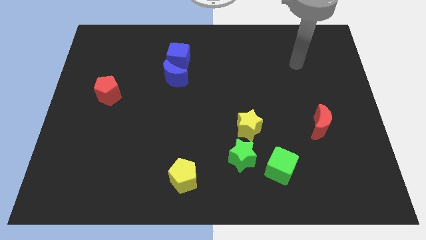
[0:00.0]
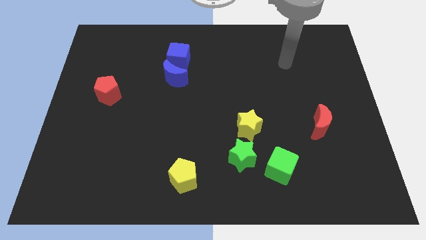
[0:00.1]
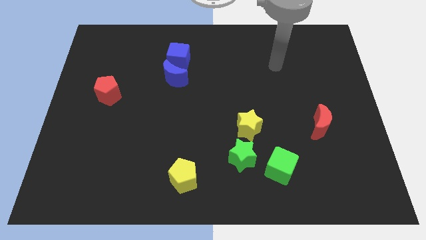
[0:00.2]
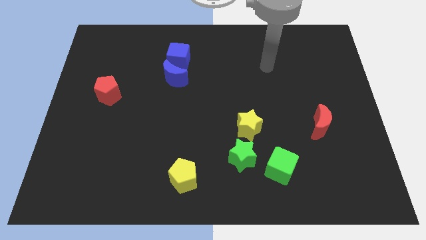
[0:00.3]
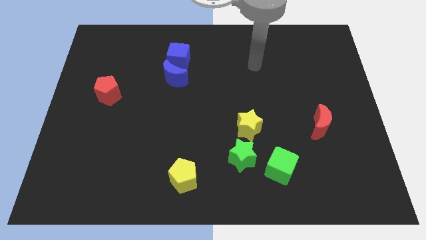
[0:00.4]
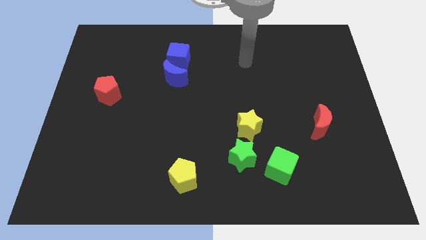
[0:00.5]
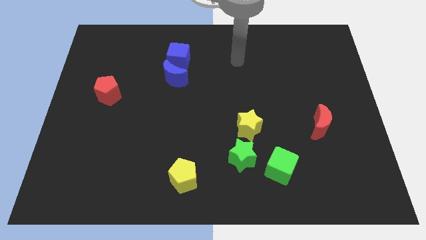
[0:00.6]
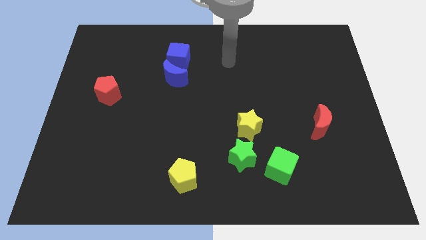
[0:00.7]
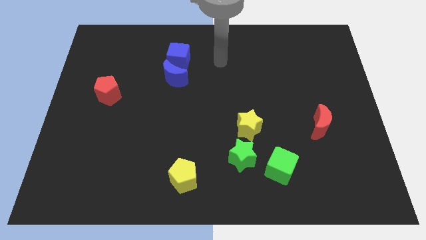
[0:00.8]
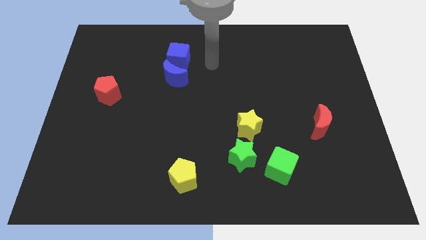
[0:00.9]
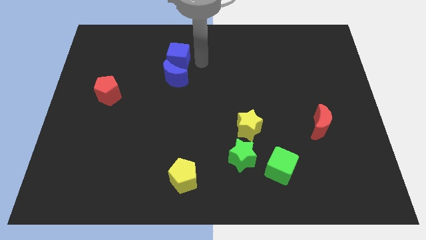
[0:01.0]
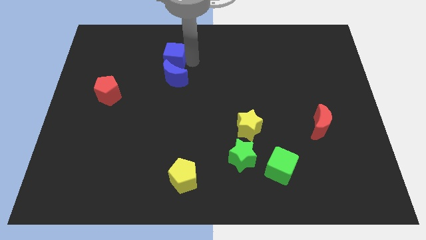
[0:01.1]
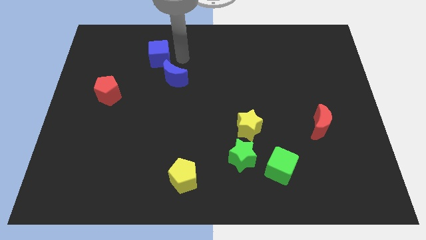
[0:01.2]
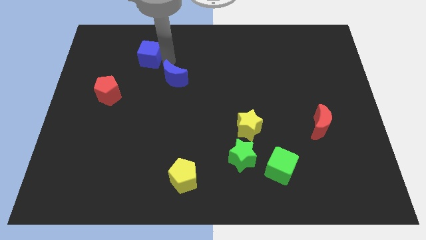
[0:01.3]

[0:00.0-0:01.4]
pull the blue moon apart from the blue cube

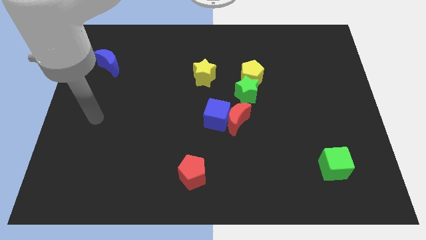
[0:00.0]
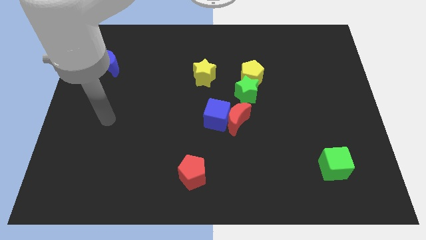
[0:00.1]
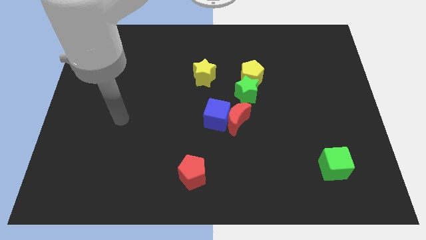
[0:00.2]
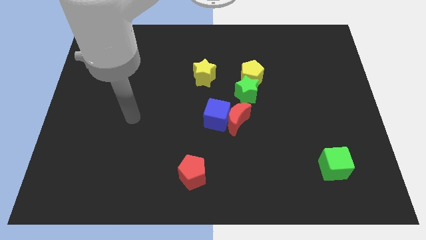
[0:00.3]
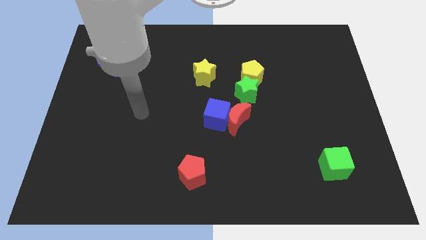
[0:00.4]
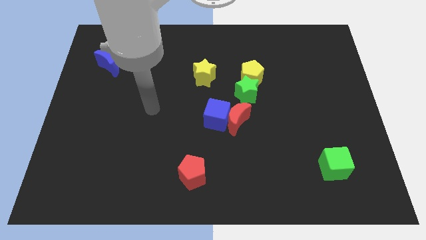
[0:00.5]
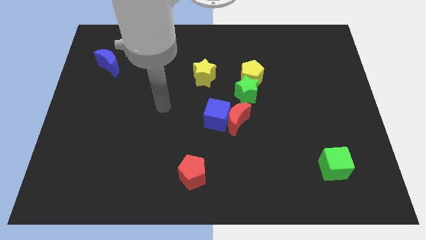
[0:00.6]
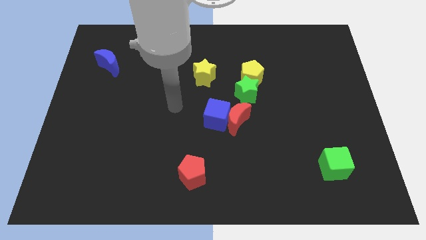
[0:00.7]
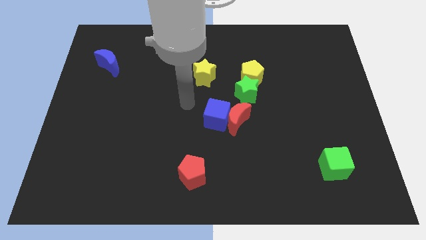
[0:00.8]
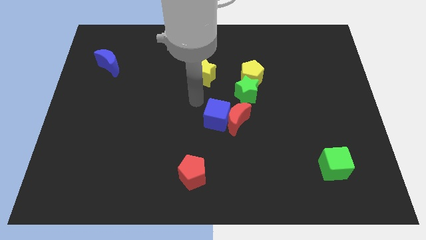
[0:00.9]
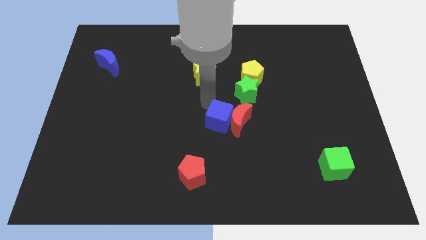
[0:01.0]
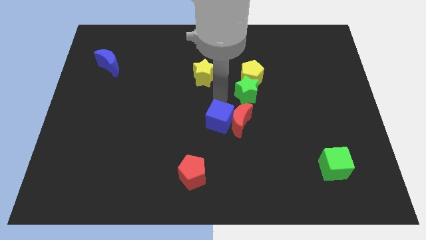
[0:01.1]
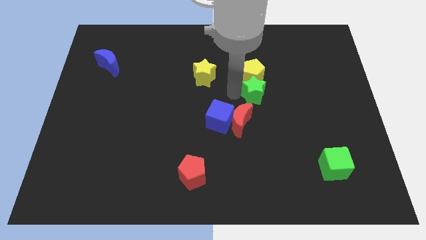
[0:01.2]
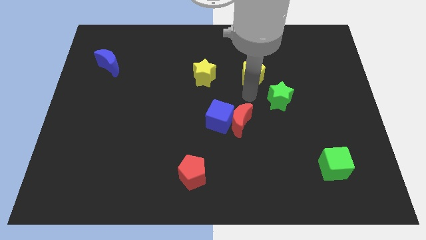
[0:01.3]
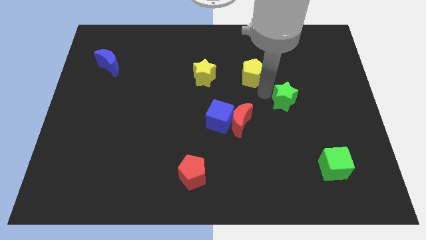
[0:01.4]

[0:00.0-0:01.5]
separate the yellow pentagon from the green star

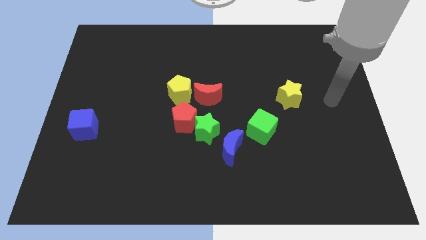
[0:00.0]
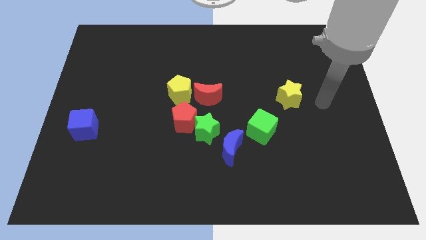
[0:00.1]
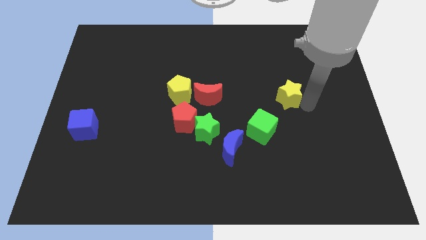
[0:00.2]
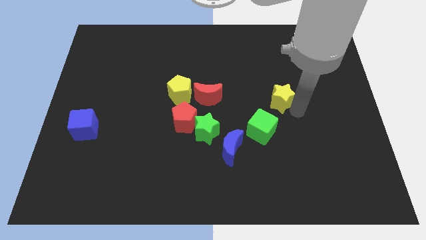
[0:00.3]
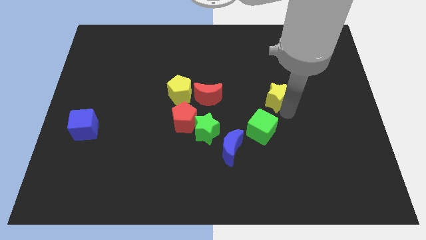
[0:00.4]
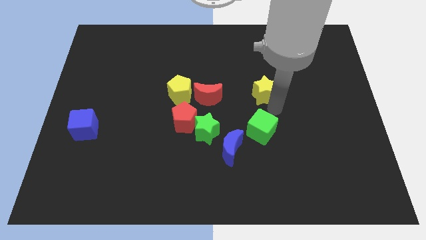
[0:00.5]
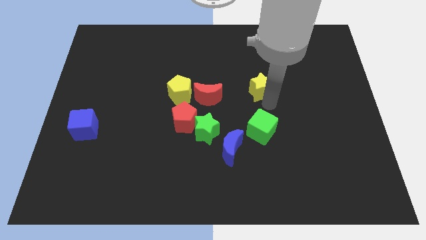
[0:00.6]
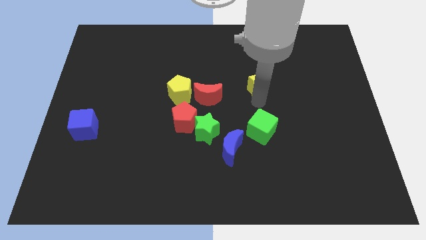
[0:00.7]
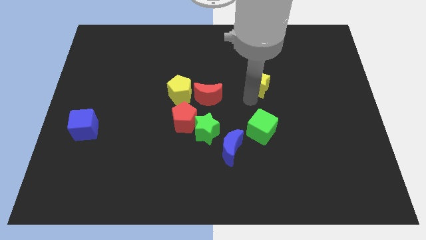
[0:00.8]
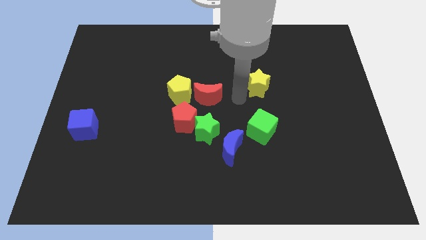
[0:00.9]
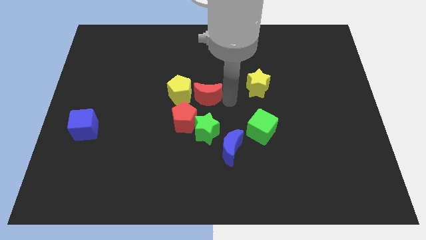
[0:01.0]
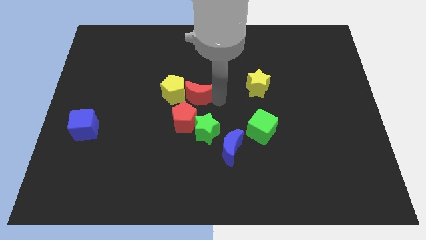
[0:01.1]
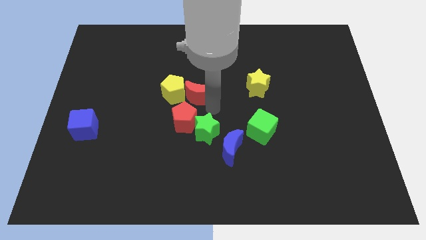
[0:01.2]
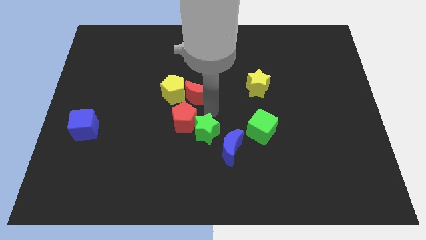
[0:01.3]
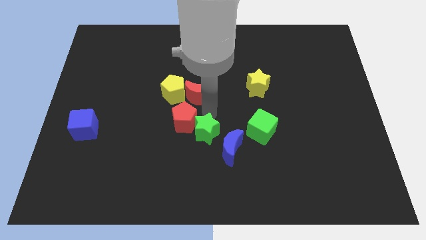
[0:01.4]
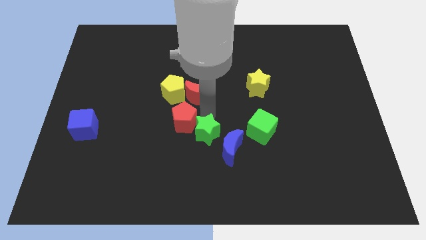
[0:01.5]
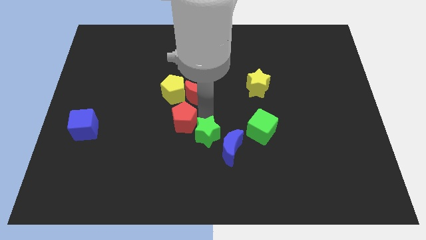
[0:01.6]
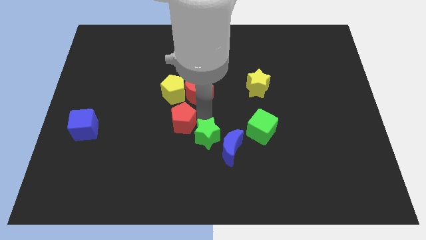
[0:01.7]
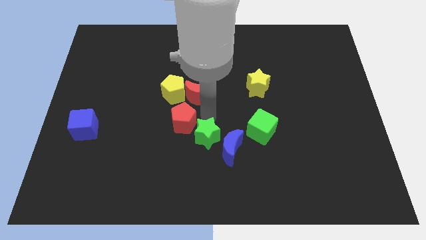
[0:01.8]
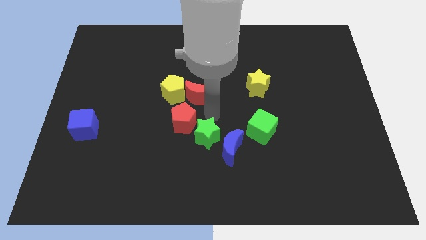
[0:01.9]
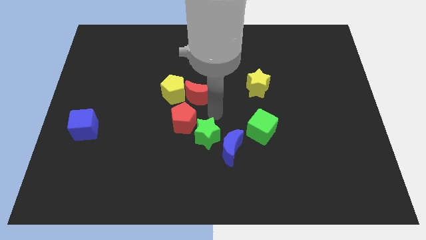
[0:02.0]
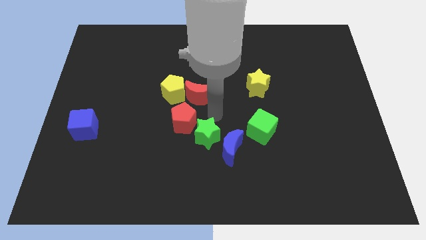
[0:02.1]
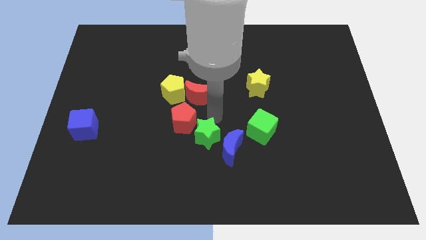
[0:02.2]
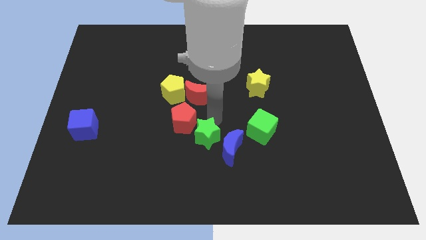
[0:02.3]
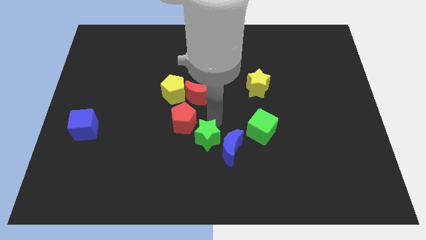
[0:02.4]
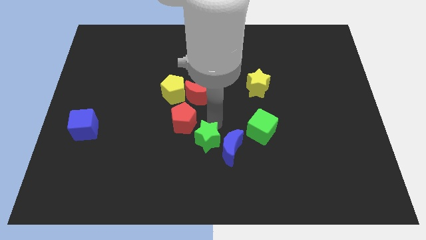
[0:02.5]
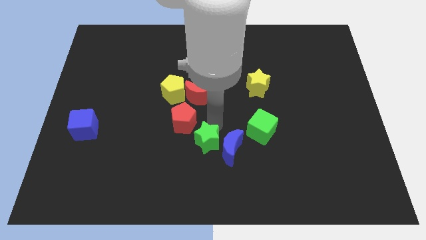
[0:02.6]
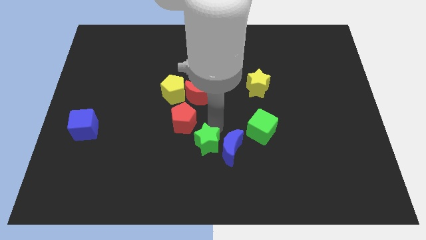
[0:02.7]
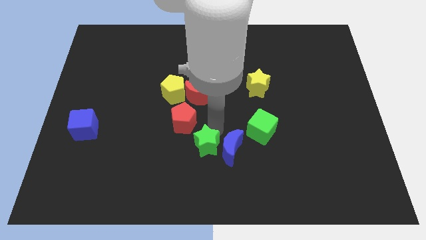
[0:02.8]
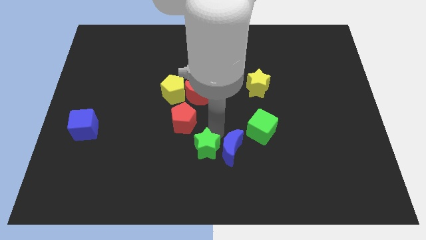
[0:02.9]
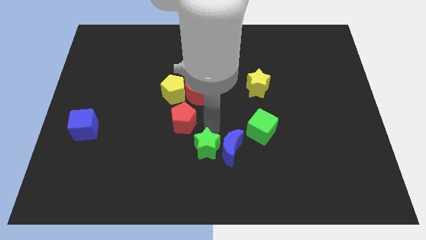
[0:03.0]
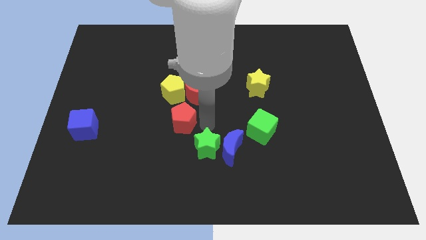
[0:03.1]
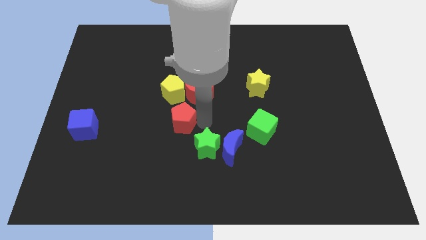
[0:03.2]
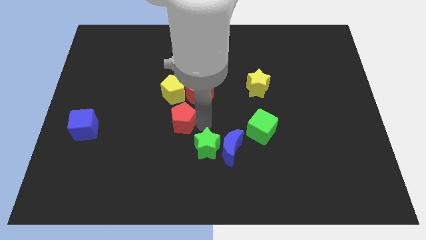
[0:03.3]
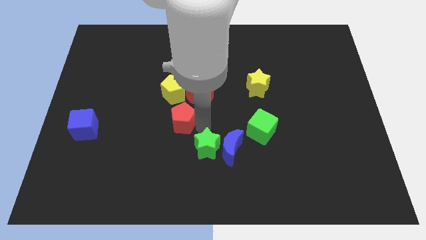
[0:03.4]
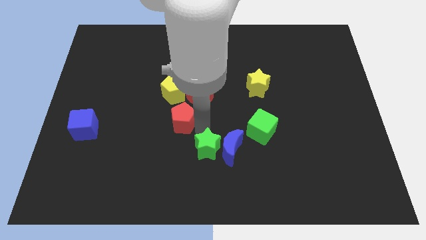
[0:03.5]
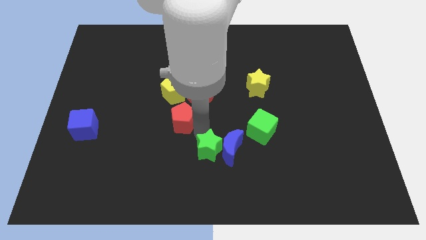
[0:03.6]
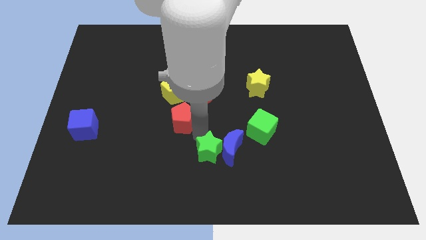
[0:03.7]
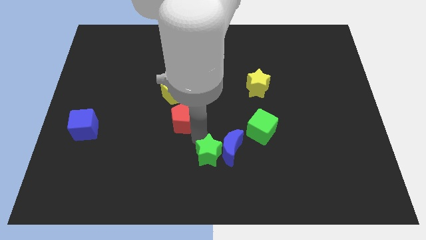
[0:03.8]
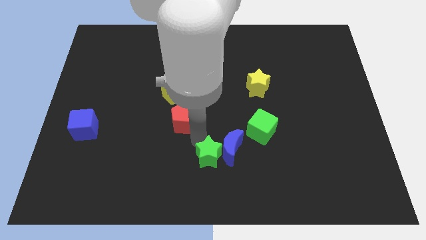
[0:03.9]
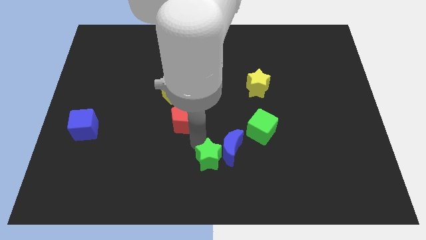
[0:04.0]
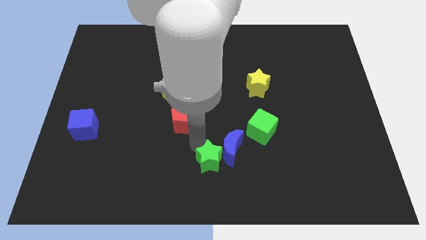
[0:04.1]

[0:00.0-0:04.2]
separate the green star from the group of blocks

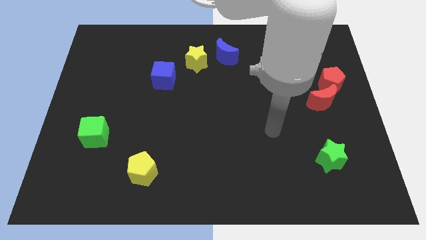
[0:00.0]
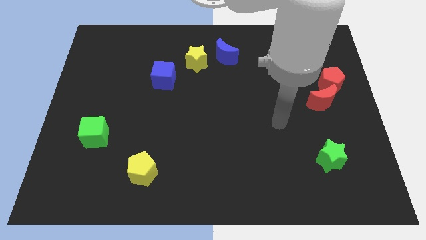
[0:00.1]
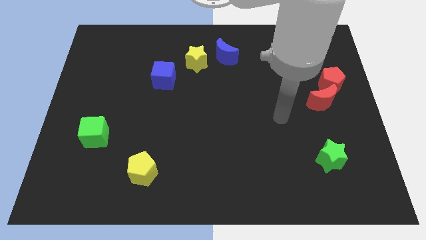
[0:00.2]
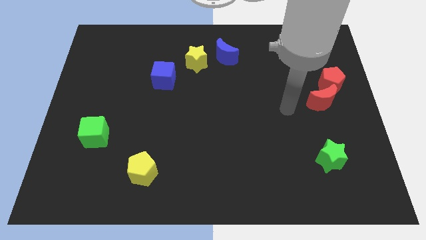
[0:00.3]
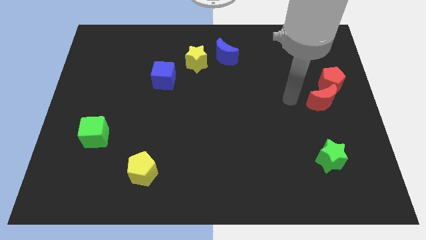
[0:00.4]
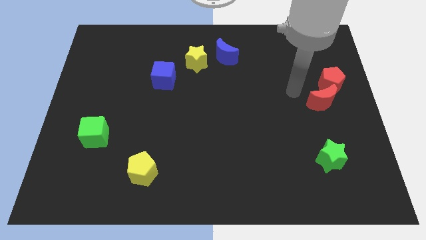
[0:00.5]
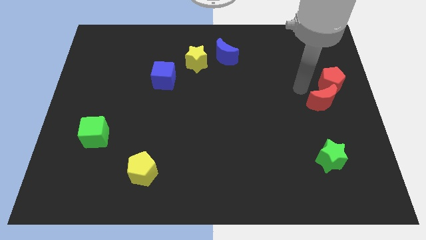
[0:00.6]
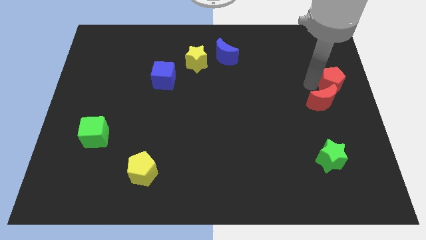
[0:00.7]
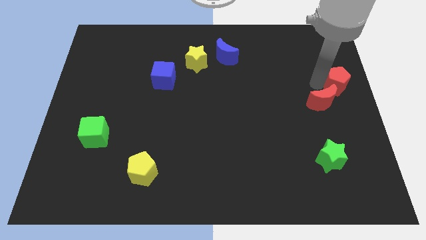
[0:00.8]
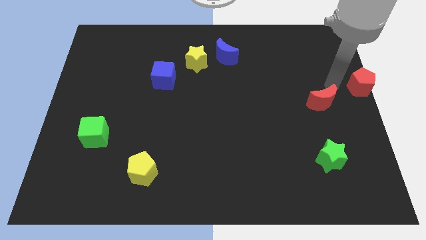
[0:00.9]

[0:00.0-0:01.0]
move the red moon away from the red pentagon

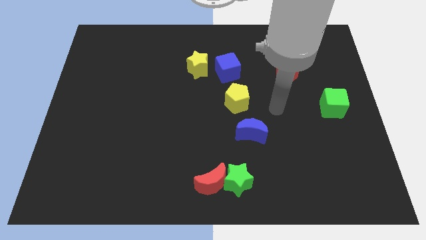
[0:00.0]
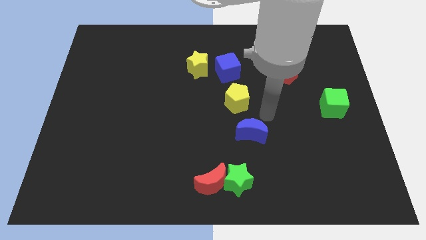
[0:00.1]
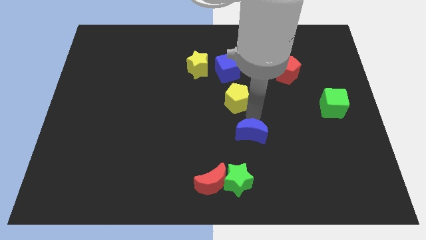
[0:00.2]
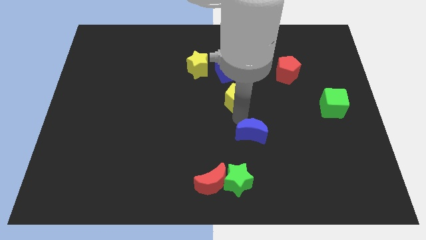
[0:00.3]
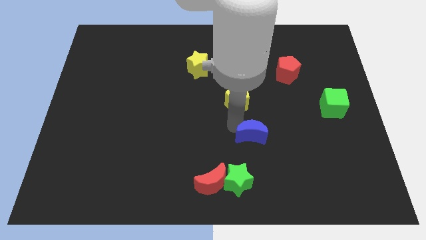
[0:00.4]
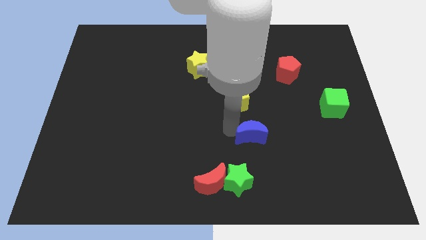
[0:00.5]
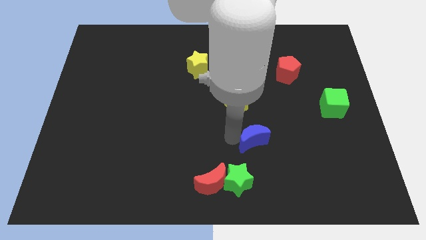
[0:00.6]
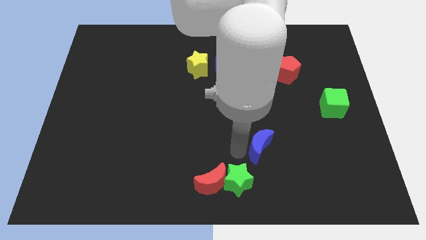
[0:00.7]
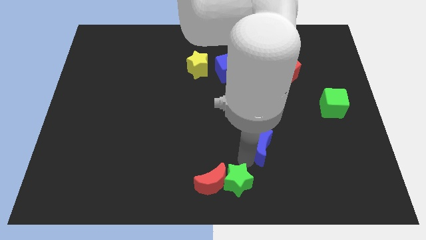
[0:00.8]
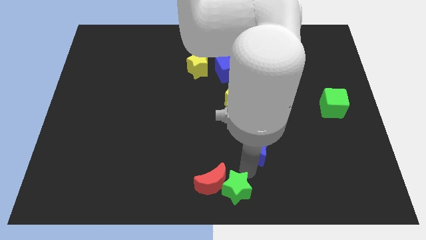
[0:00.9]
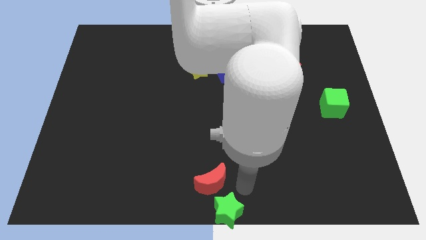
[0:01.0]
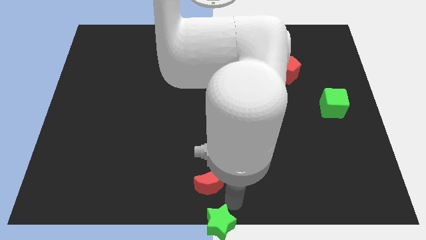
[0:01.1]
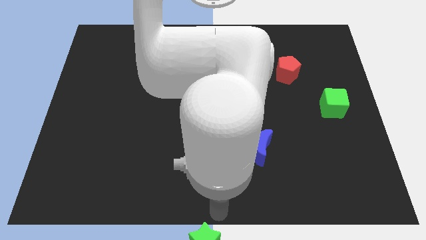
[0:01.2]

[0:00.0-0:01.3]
separate the red moon from the green star
